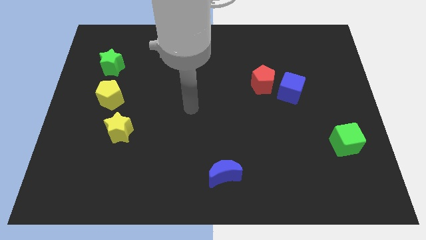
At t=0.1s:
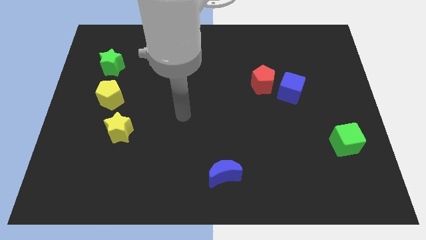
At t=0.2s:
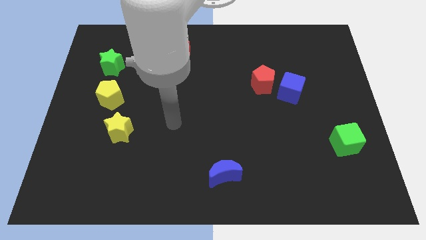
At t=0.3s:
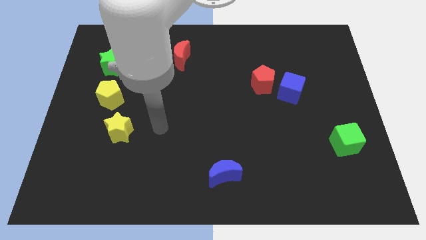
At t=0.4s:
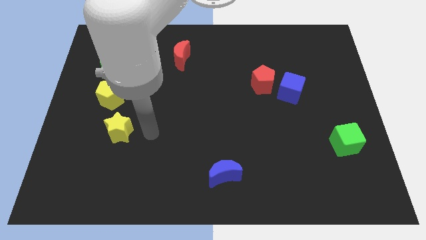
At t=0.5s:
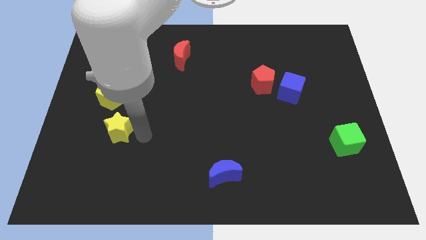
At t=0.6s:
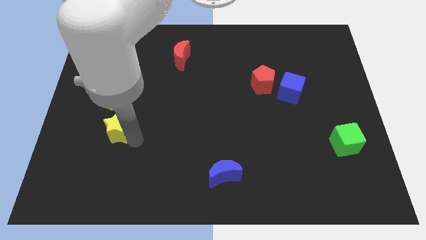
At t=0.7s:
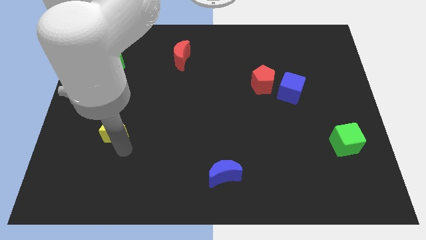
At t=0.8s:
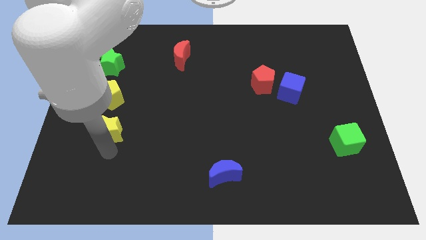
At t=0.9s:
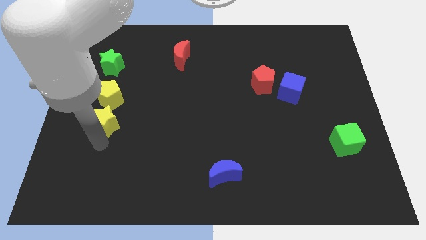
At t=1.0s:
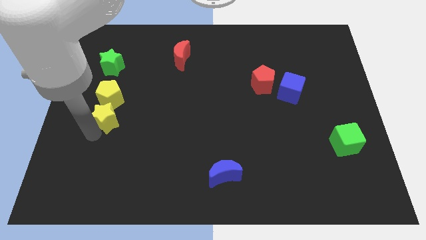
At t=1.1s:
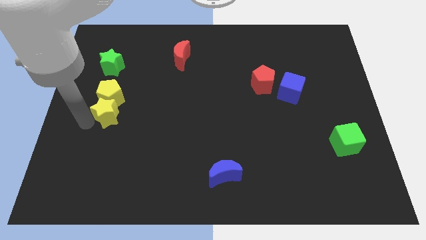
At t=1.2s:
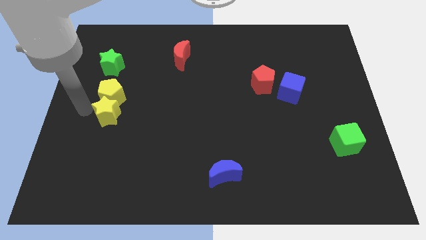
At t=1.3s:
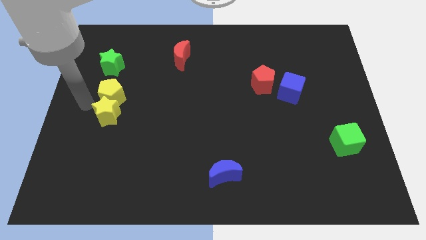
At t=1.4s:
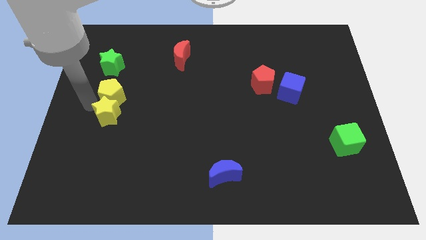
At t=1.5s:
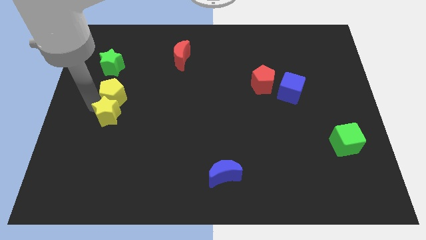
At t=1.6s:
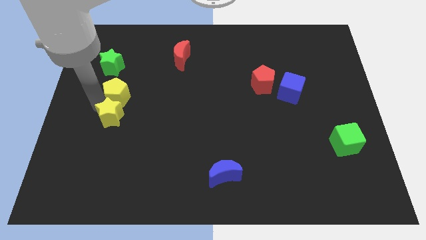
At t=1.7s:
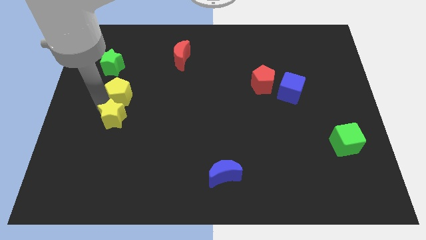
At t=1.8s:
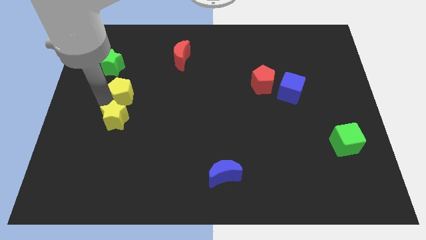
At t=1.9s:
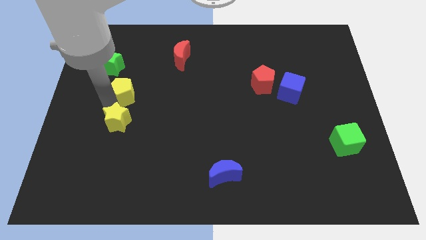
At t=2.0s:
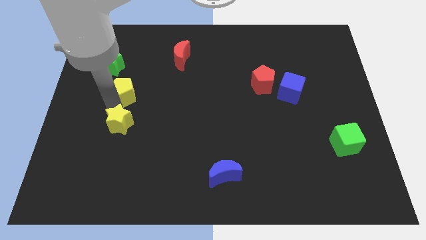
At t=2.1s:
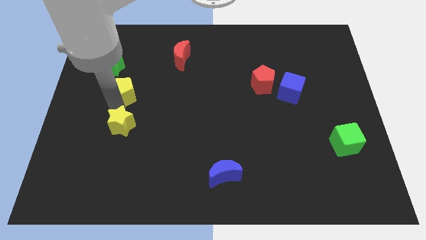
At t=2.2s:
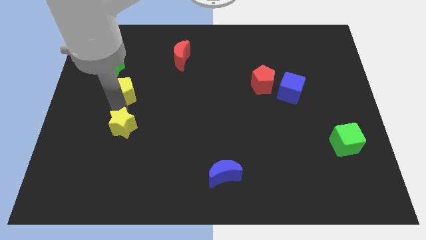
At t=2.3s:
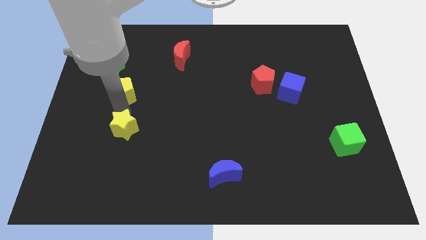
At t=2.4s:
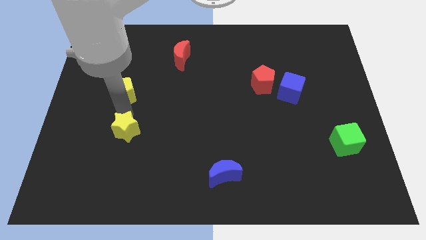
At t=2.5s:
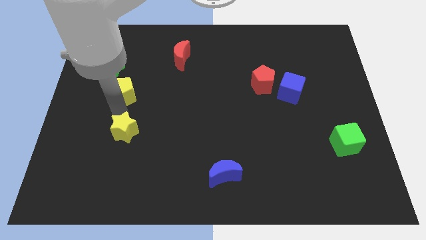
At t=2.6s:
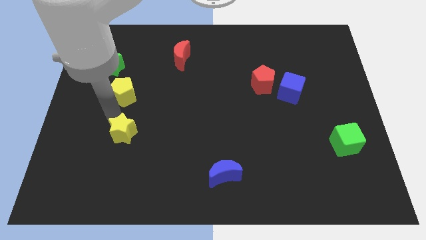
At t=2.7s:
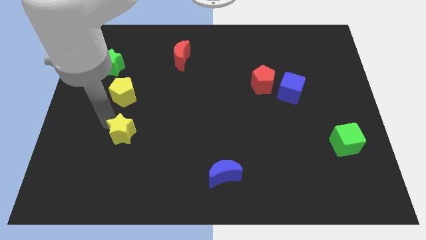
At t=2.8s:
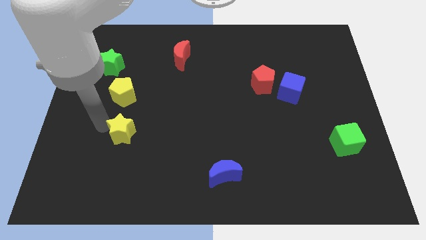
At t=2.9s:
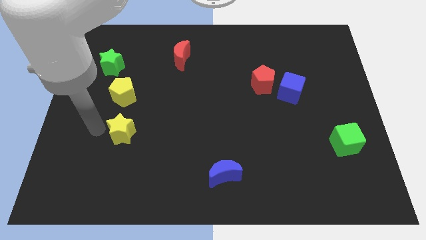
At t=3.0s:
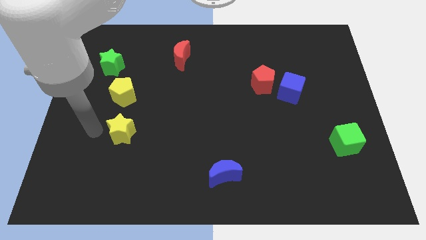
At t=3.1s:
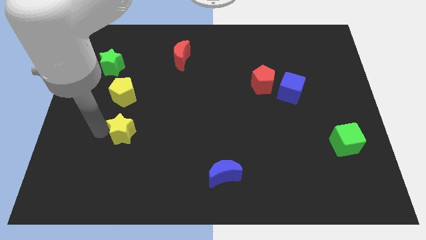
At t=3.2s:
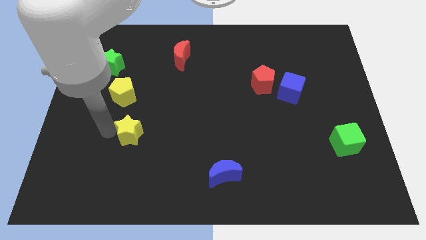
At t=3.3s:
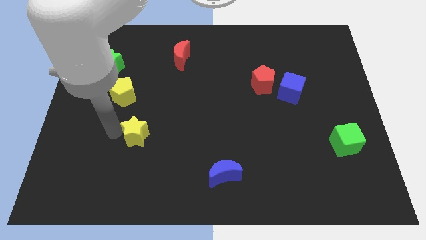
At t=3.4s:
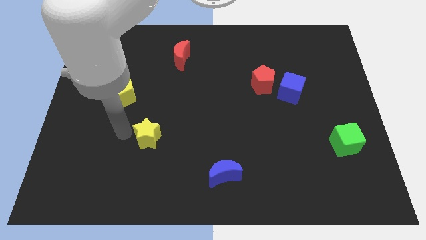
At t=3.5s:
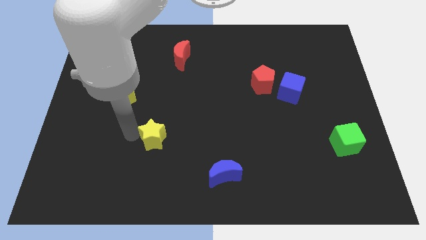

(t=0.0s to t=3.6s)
push the yellow star right a little

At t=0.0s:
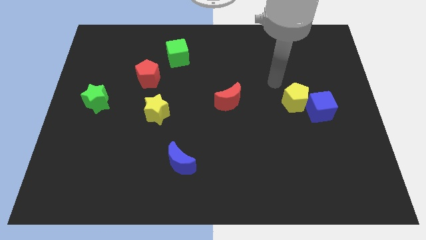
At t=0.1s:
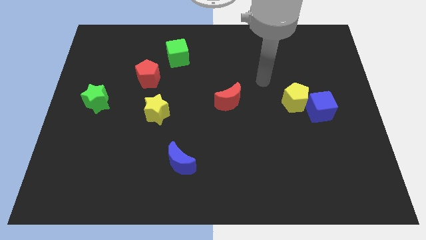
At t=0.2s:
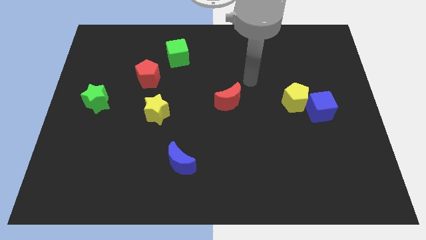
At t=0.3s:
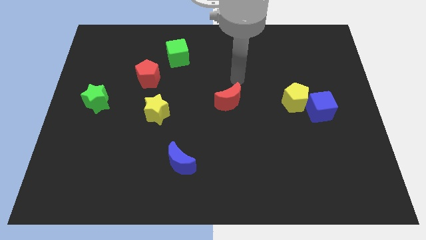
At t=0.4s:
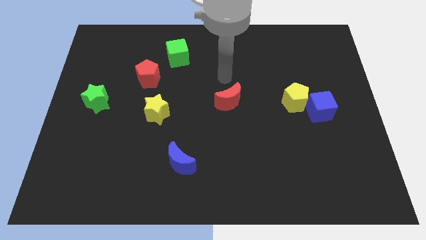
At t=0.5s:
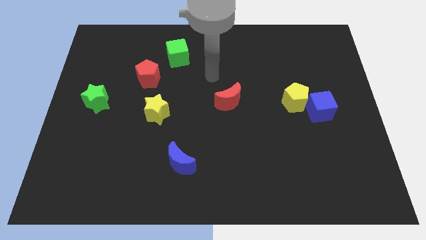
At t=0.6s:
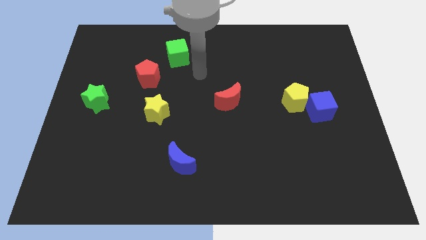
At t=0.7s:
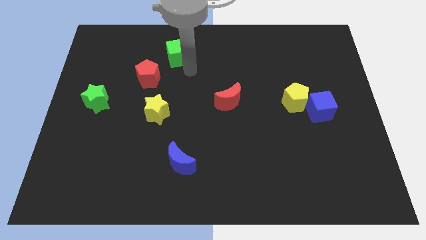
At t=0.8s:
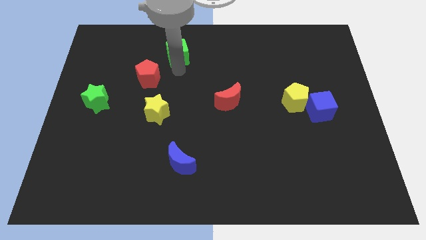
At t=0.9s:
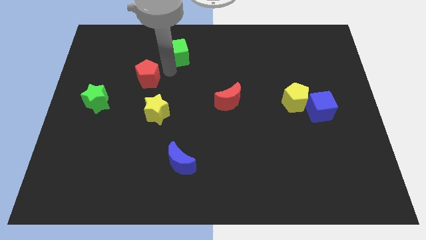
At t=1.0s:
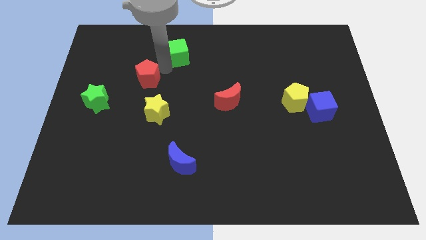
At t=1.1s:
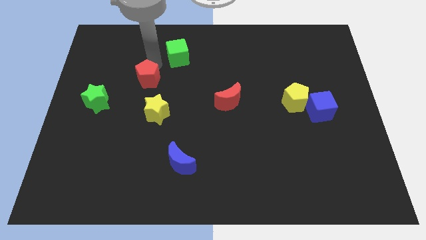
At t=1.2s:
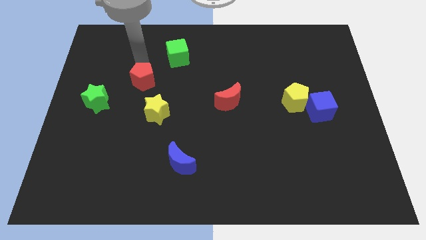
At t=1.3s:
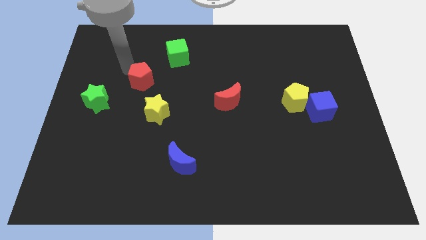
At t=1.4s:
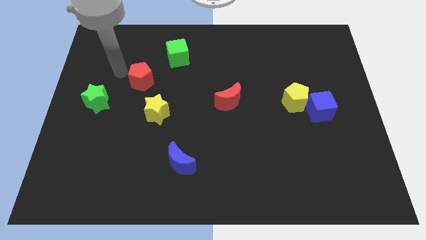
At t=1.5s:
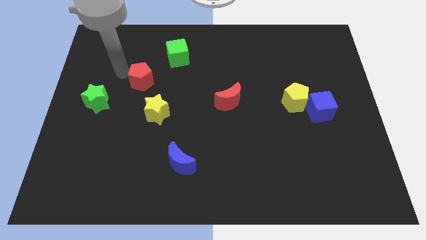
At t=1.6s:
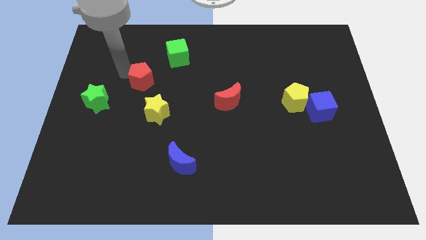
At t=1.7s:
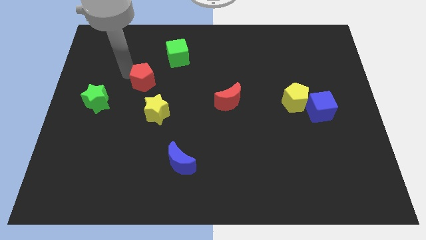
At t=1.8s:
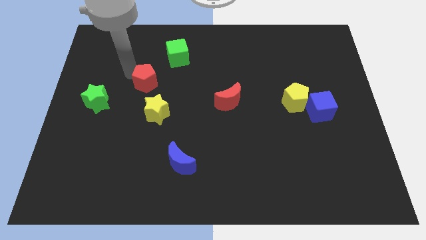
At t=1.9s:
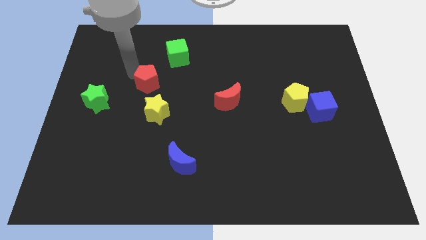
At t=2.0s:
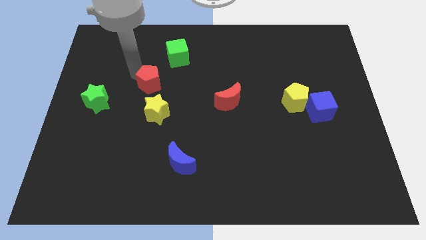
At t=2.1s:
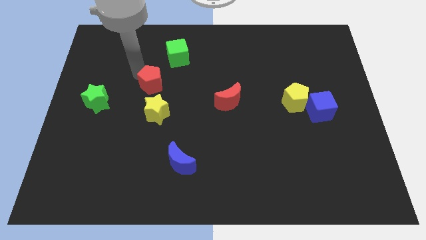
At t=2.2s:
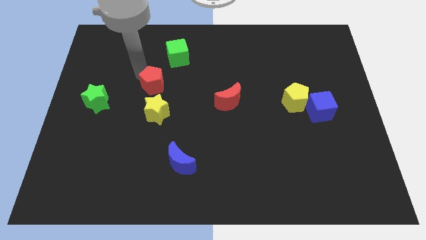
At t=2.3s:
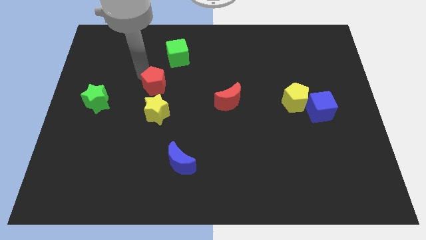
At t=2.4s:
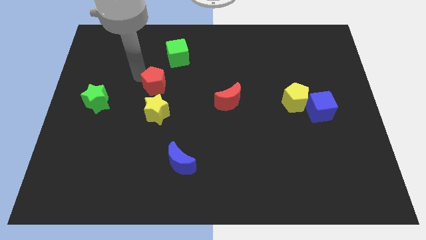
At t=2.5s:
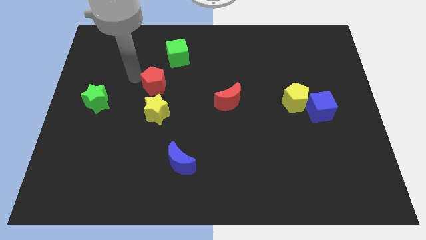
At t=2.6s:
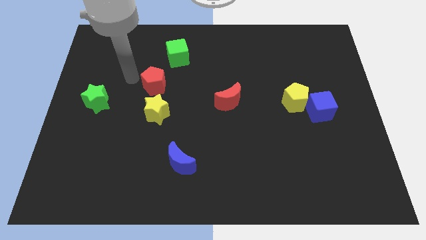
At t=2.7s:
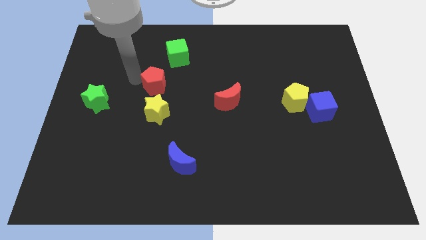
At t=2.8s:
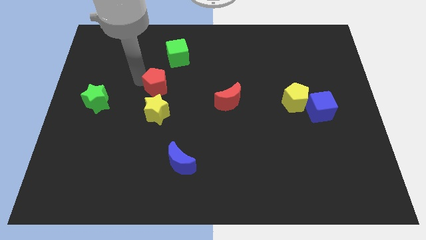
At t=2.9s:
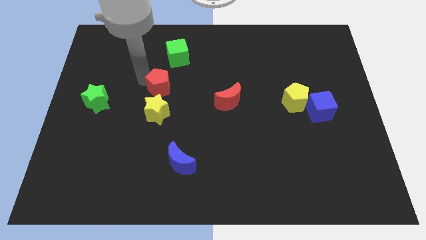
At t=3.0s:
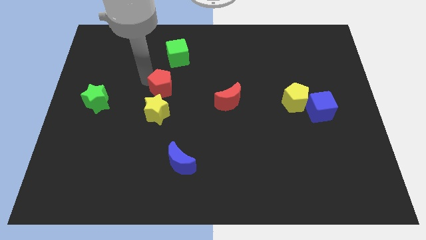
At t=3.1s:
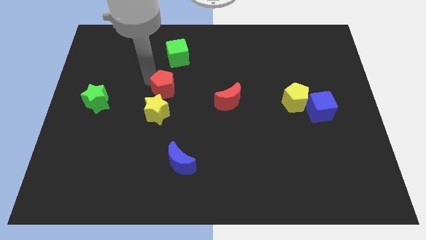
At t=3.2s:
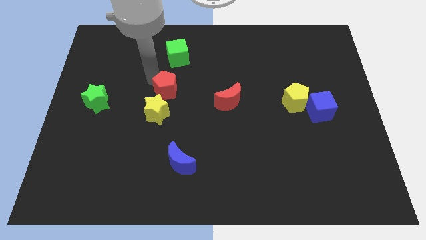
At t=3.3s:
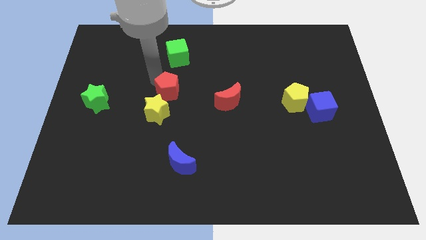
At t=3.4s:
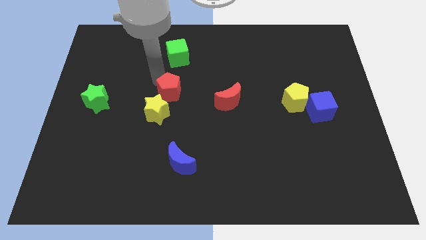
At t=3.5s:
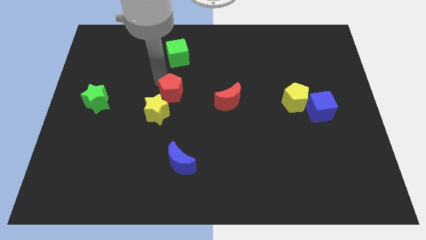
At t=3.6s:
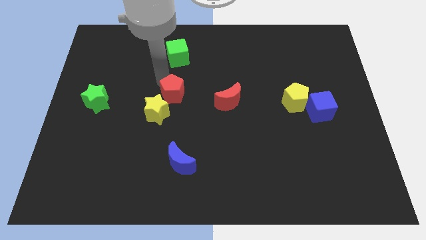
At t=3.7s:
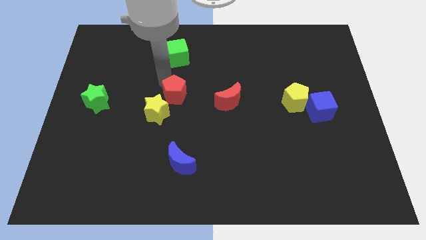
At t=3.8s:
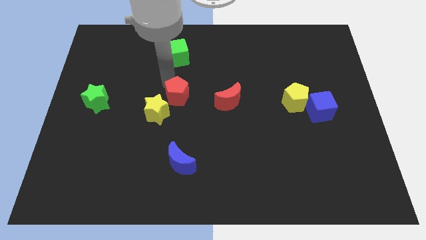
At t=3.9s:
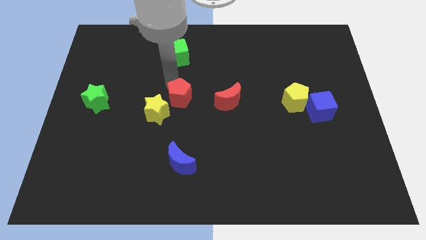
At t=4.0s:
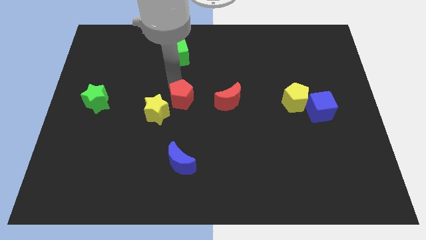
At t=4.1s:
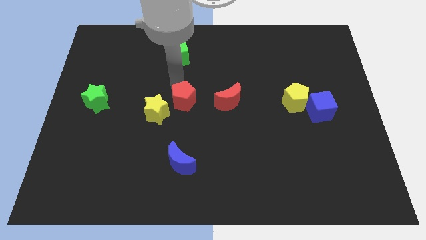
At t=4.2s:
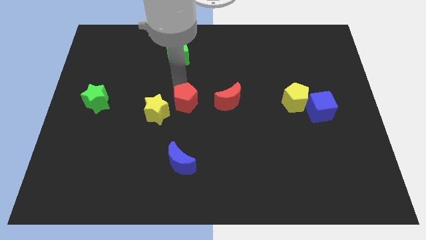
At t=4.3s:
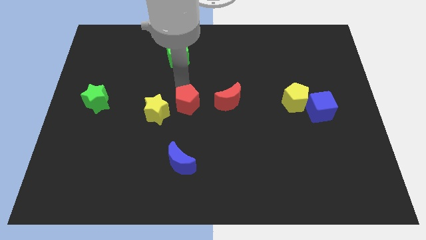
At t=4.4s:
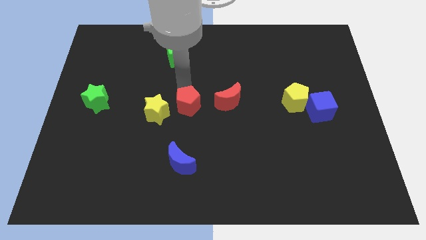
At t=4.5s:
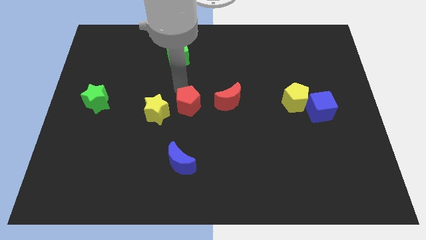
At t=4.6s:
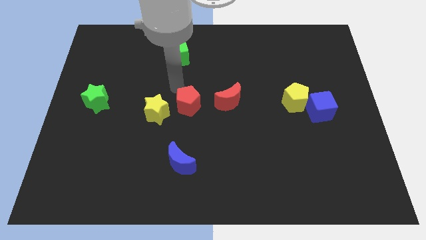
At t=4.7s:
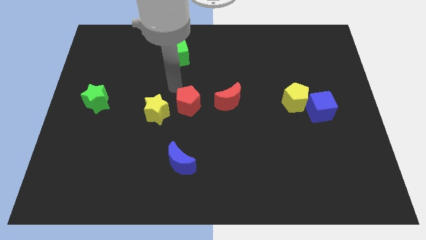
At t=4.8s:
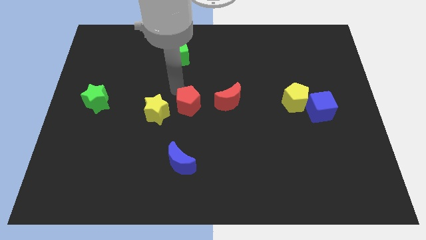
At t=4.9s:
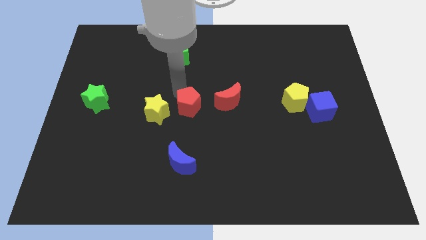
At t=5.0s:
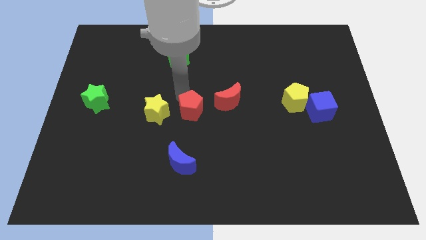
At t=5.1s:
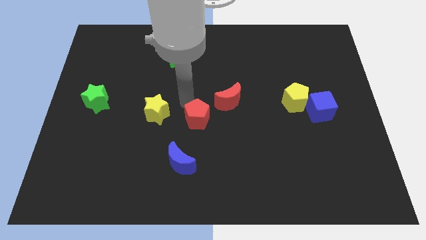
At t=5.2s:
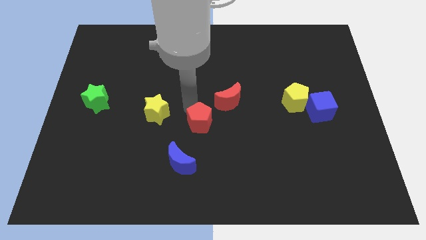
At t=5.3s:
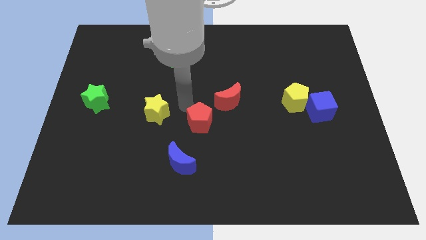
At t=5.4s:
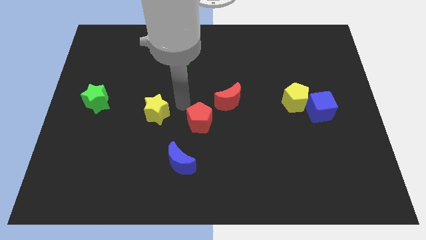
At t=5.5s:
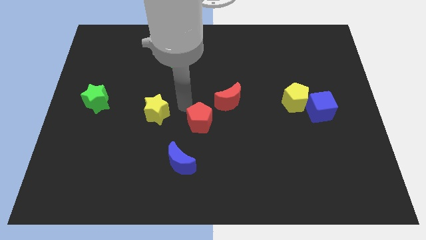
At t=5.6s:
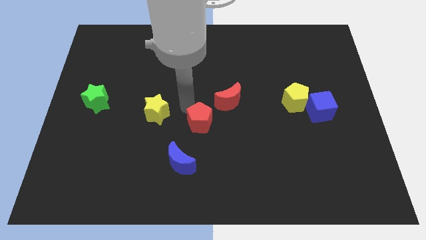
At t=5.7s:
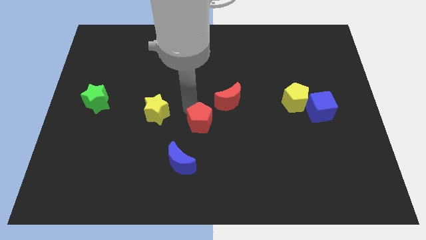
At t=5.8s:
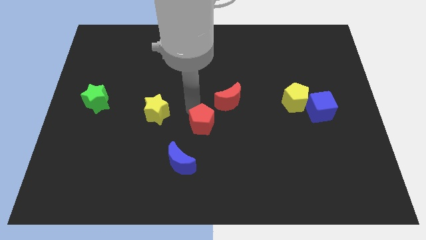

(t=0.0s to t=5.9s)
push the red pentagon down and to the right diagonally
